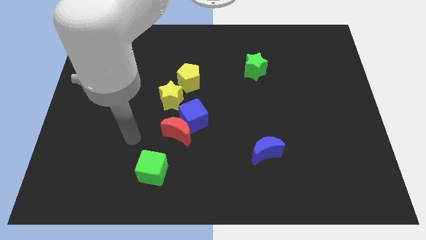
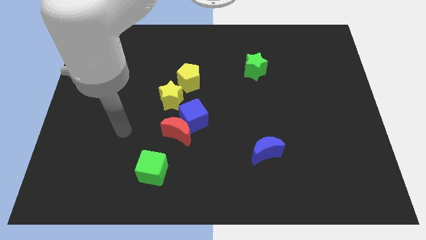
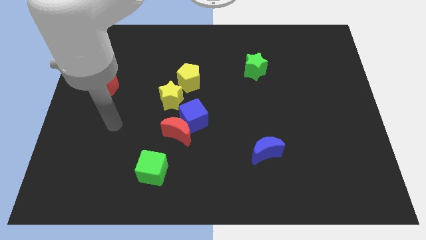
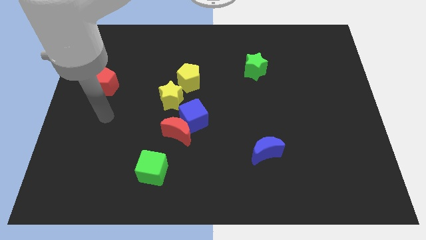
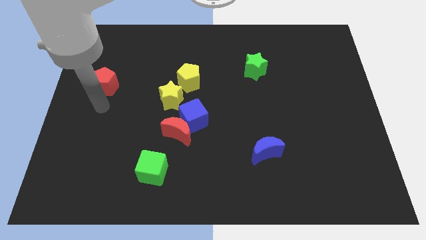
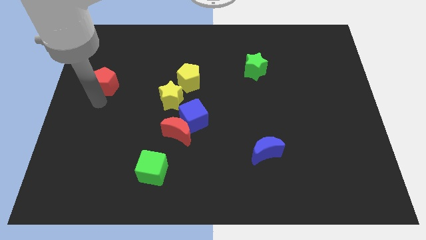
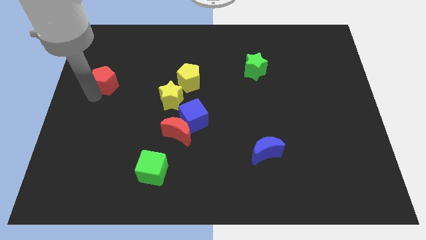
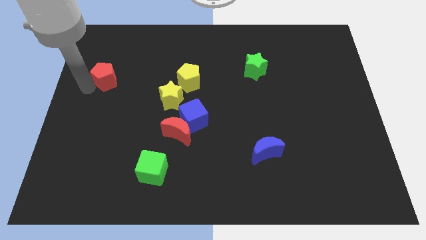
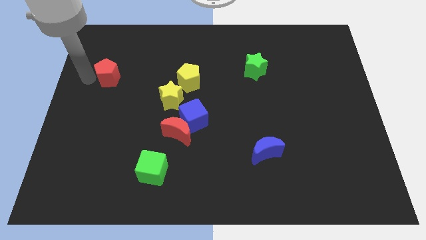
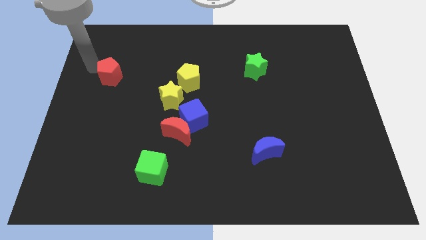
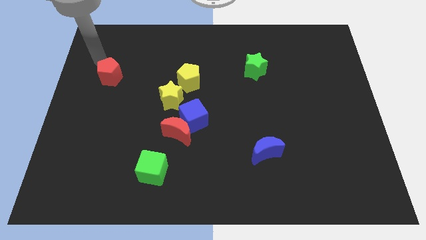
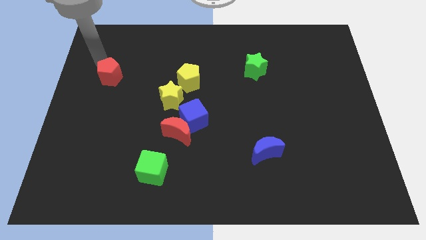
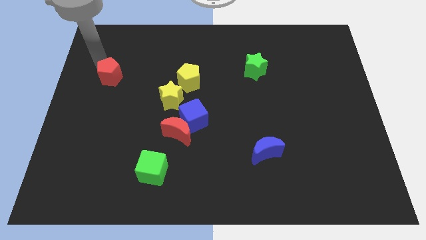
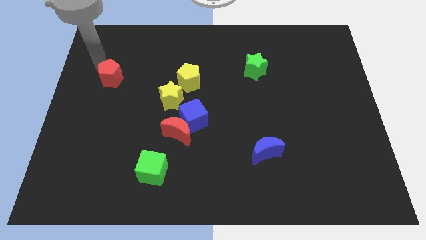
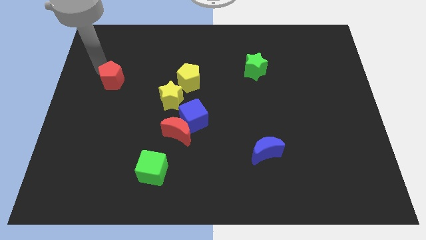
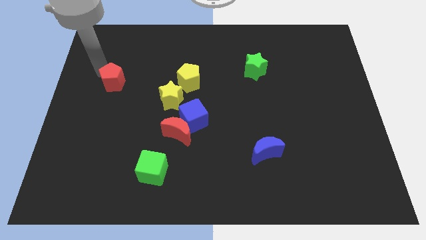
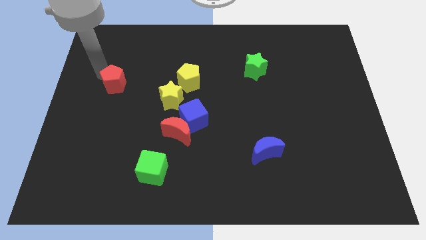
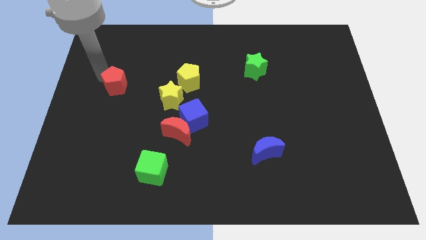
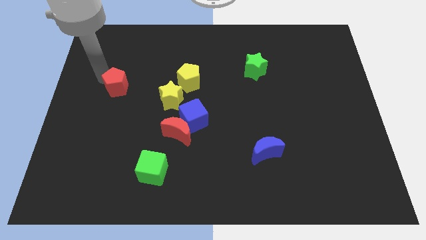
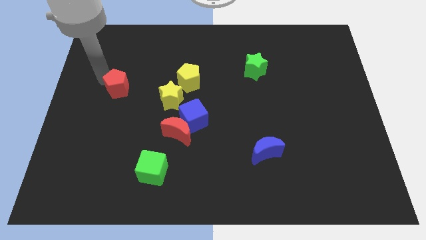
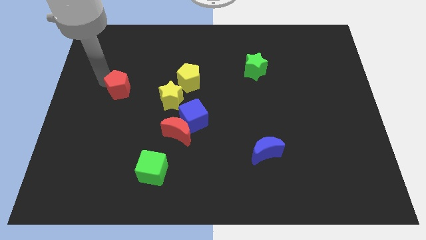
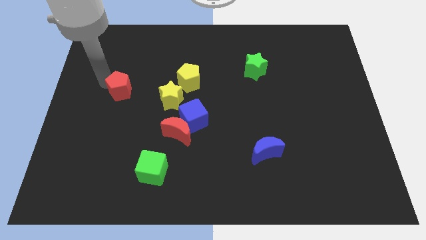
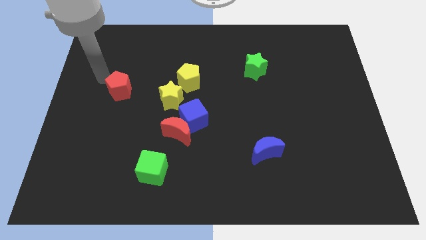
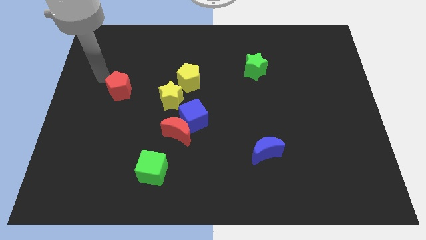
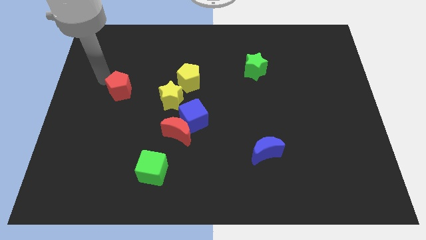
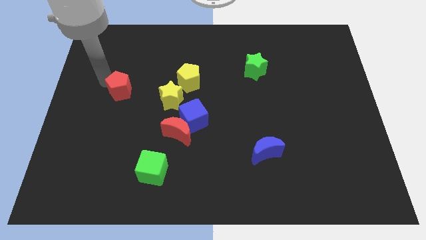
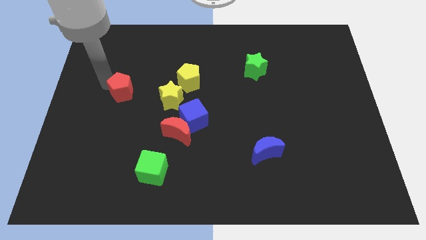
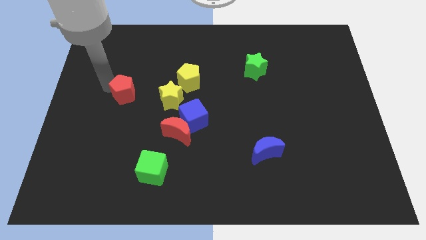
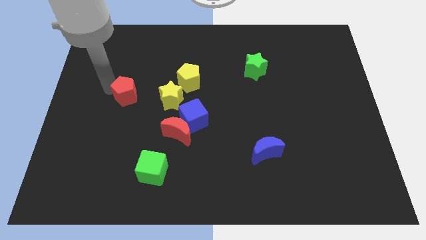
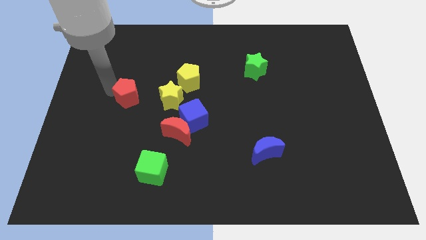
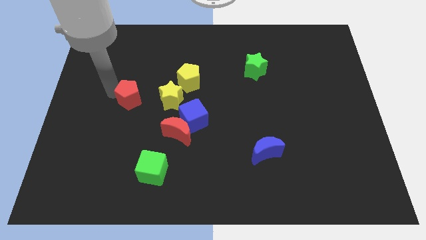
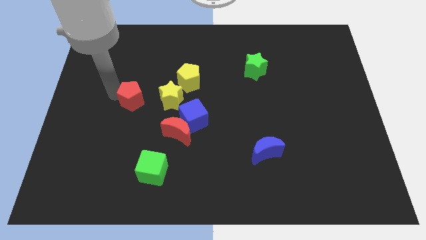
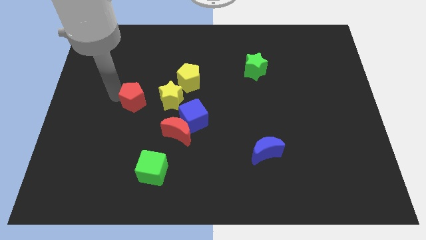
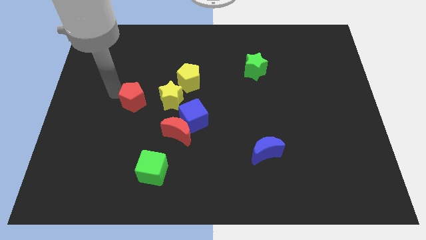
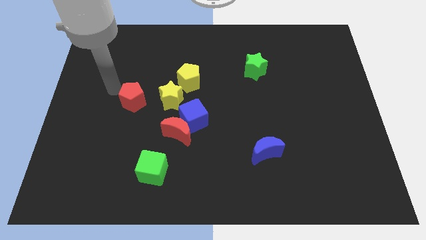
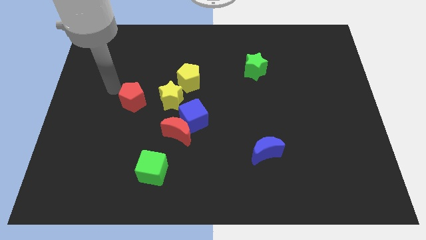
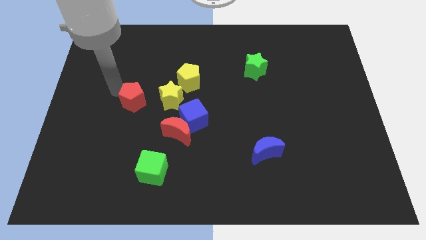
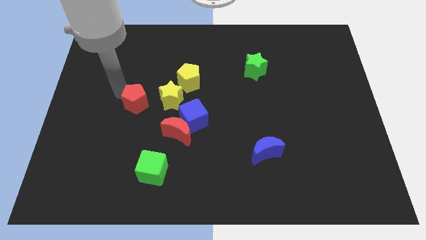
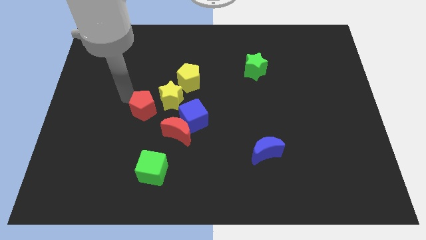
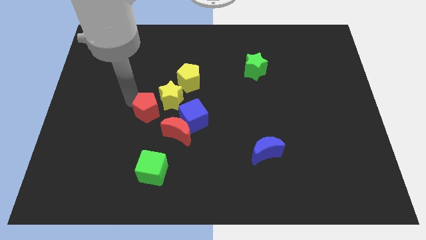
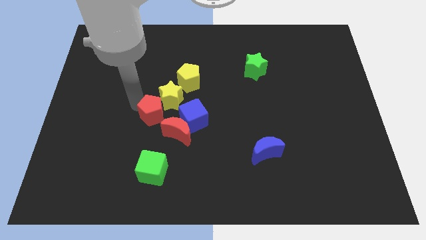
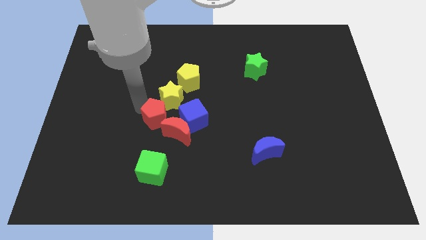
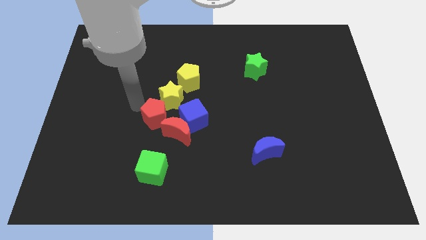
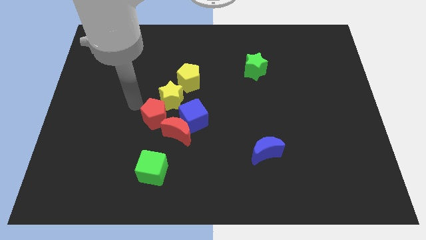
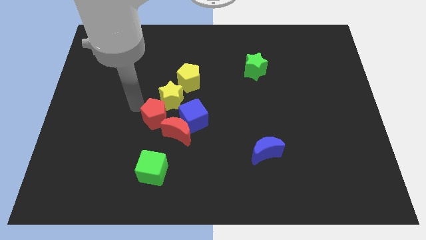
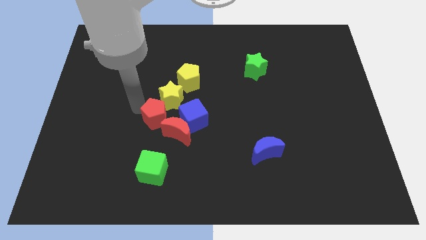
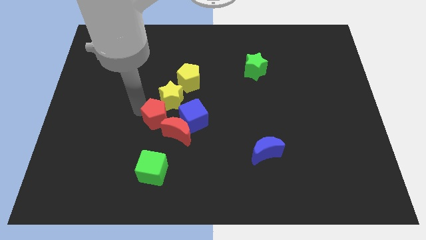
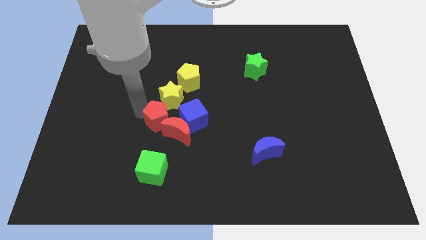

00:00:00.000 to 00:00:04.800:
slide the red pentagon close to the red moon

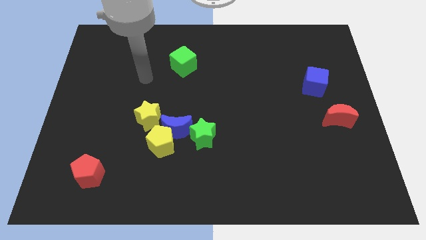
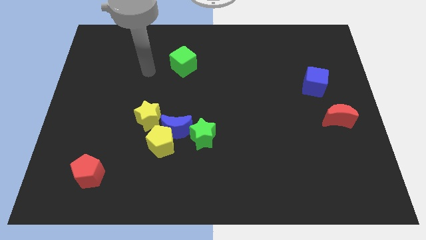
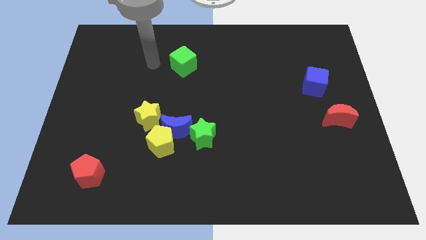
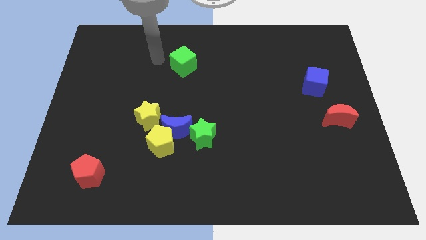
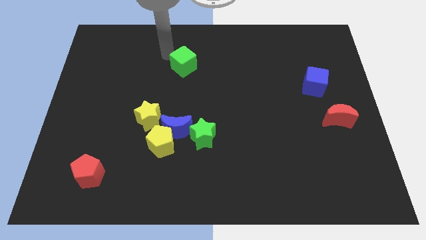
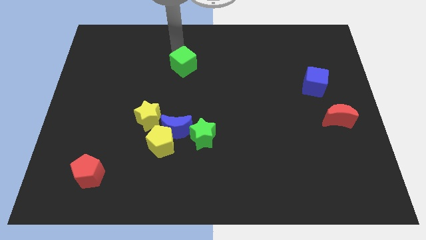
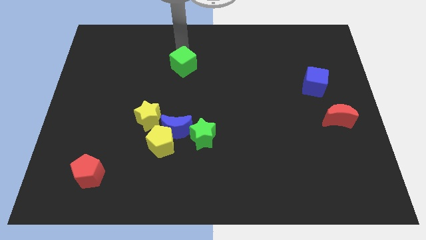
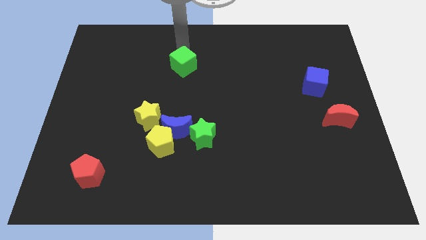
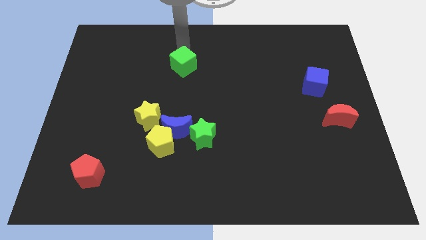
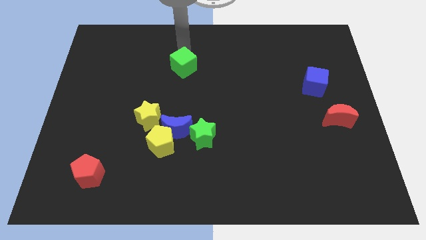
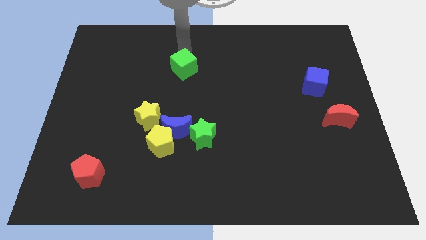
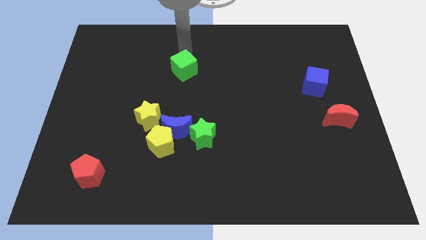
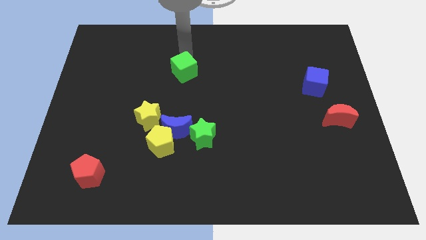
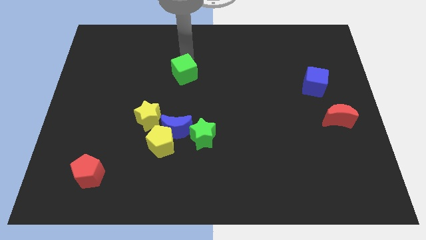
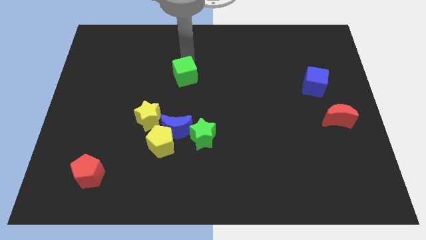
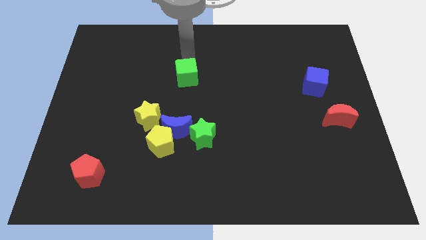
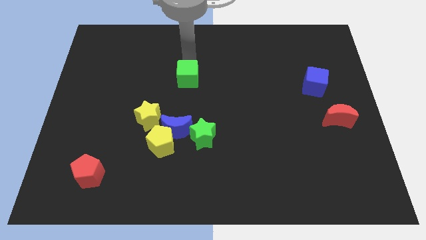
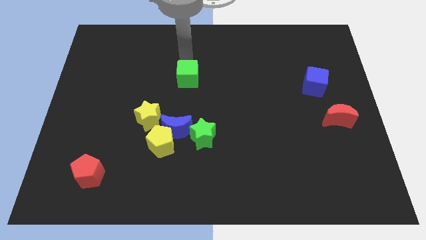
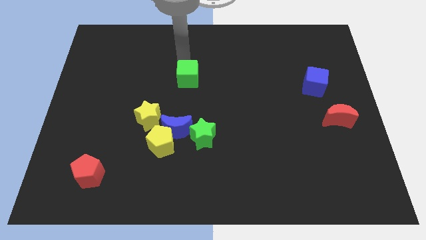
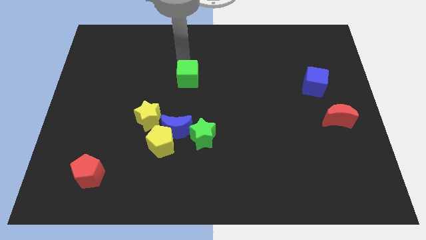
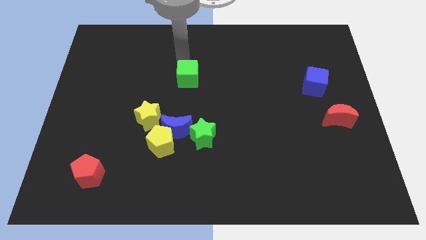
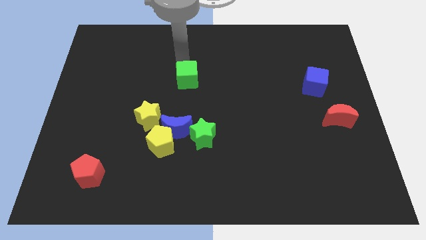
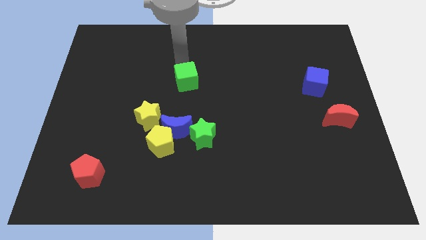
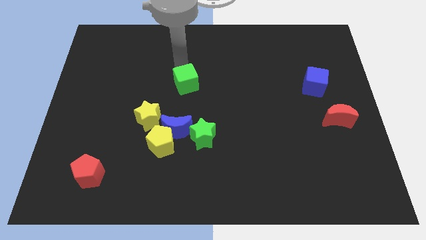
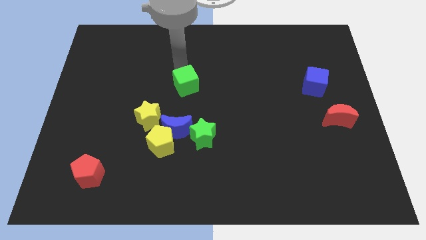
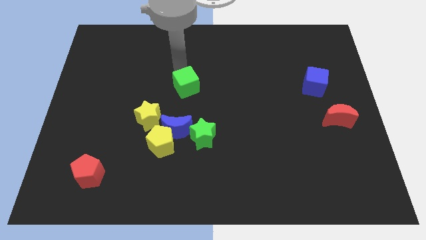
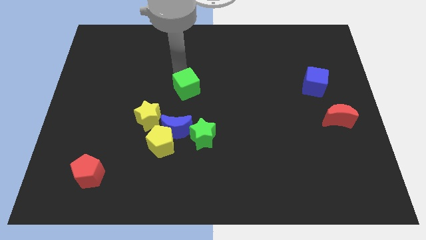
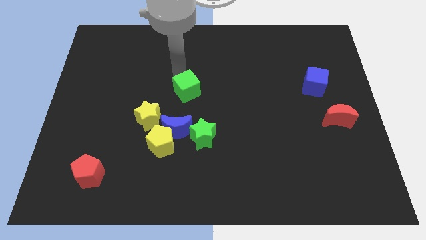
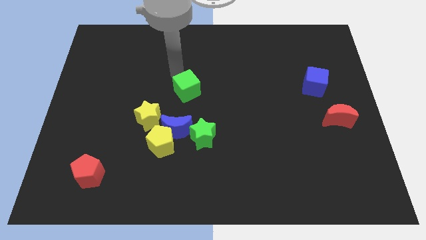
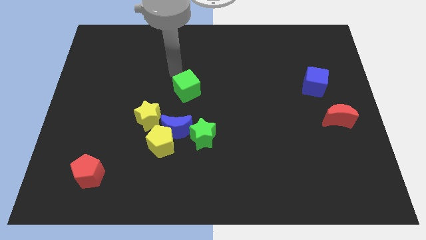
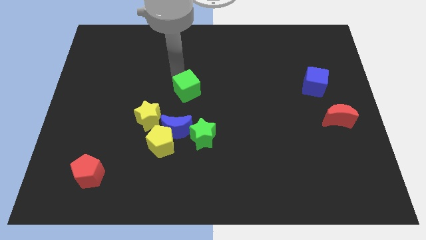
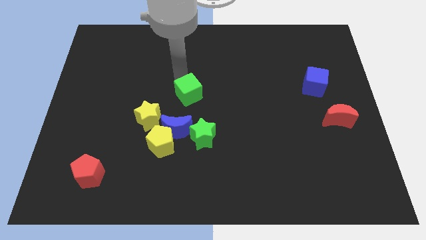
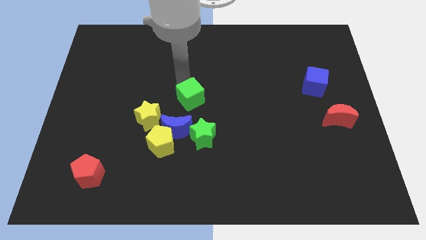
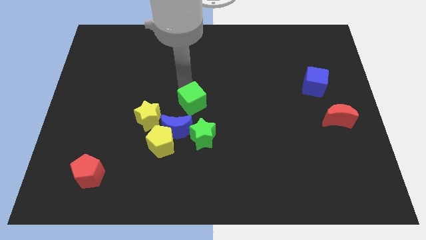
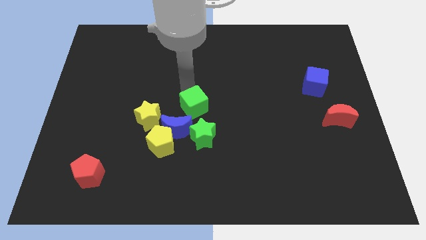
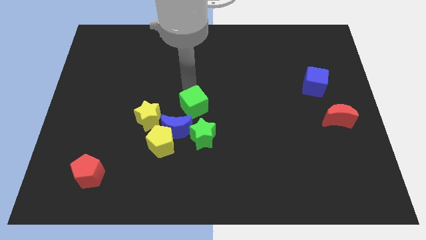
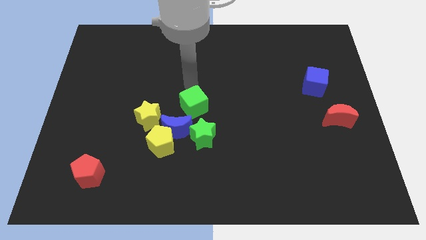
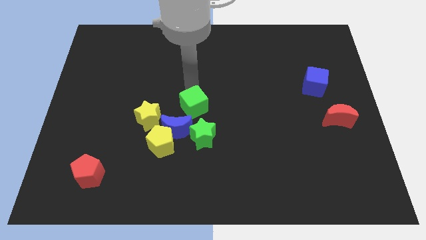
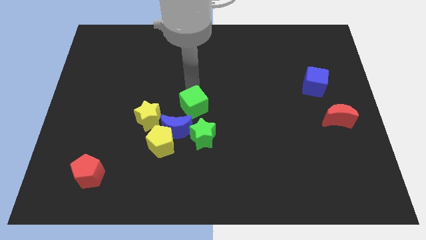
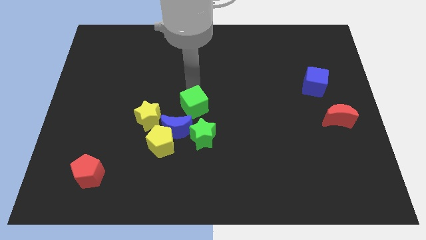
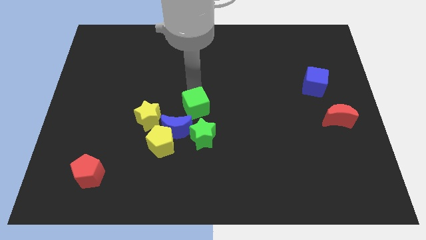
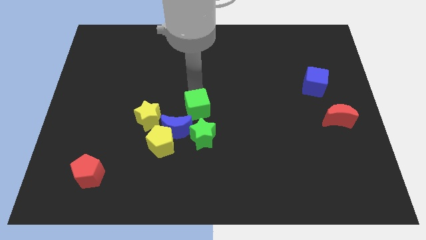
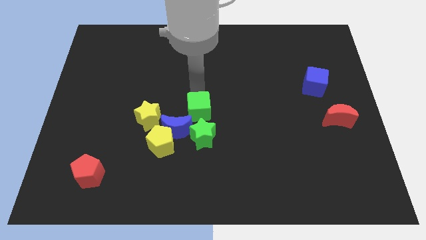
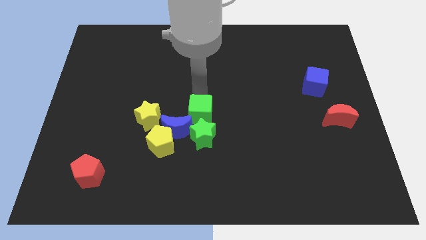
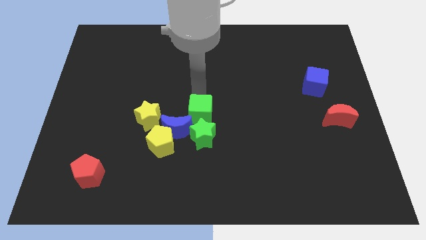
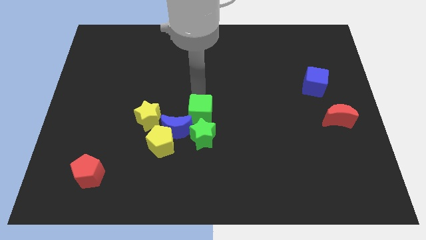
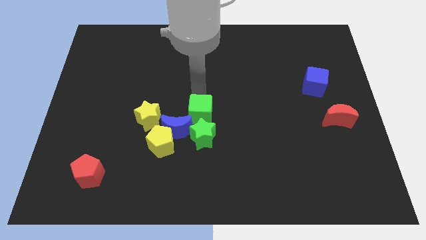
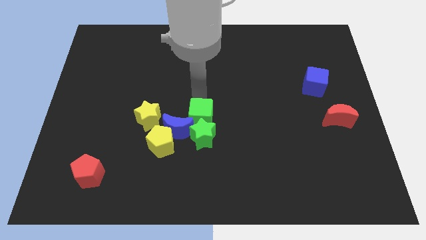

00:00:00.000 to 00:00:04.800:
slide the green cube close to the green star
